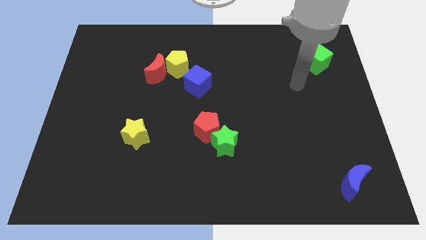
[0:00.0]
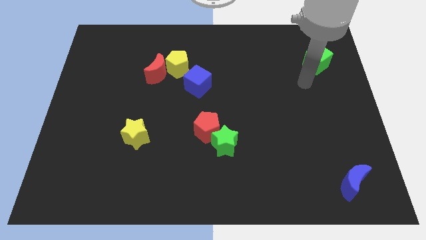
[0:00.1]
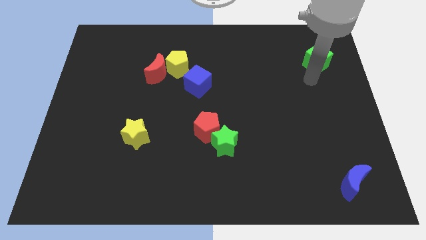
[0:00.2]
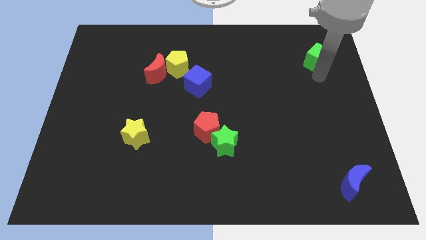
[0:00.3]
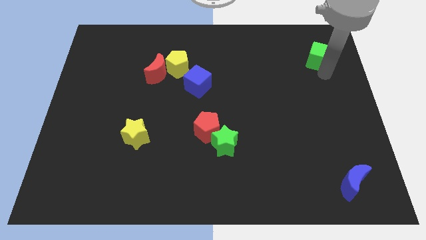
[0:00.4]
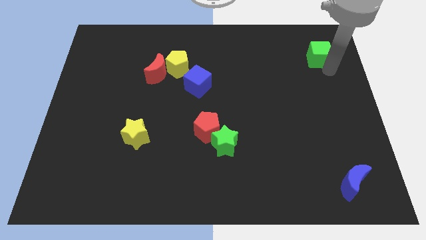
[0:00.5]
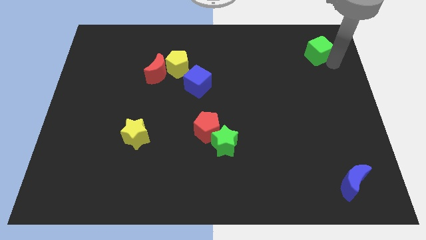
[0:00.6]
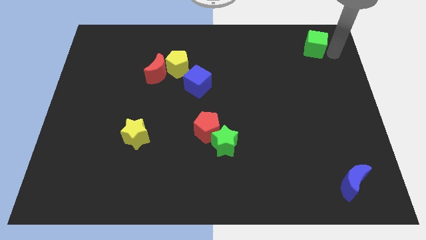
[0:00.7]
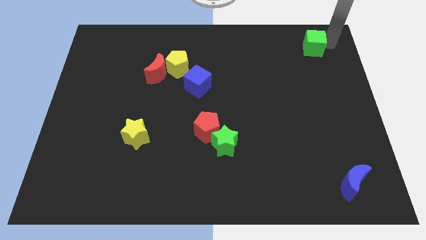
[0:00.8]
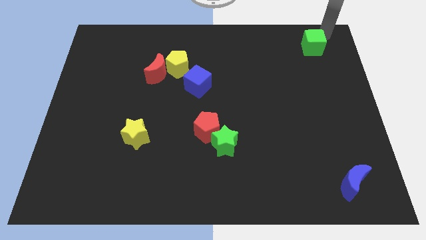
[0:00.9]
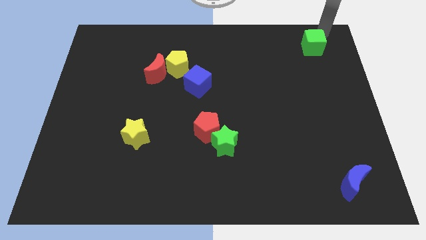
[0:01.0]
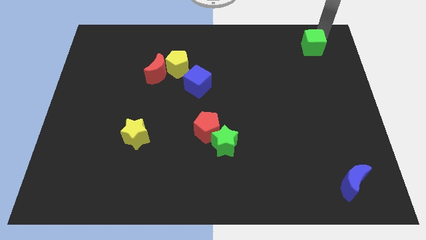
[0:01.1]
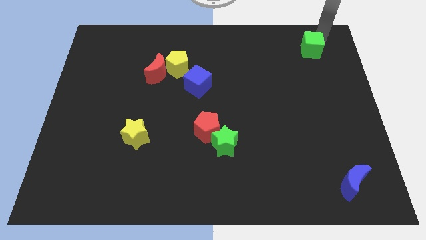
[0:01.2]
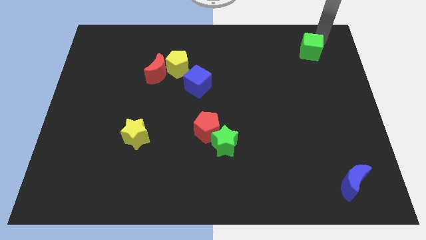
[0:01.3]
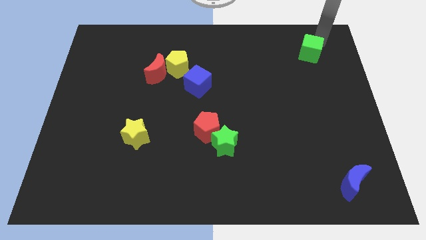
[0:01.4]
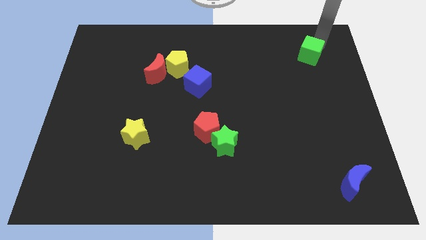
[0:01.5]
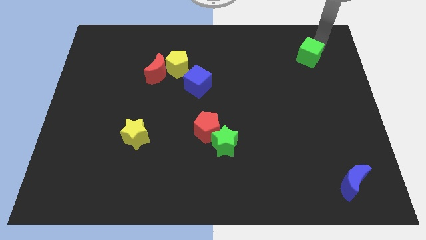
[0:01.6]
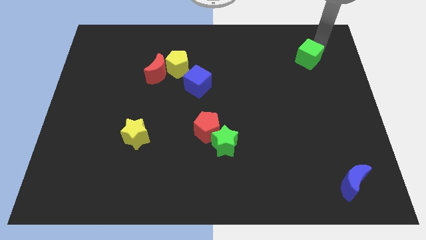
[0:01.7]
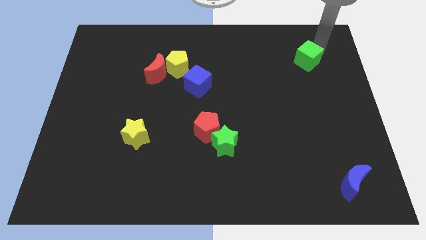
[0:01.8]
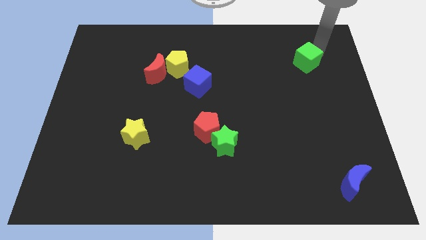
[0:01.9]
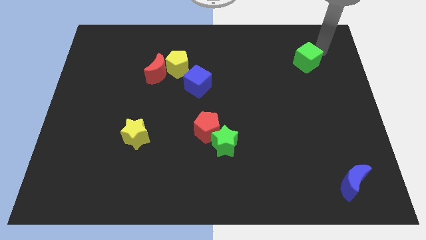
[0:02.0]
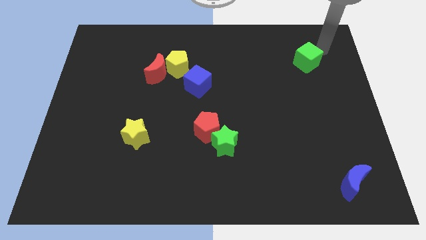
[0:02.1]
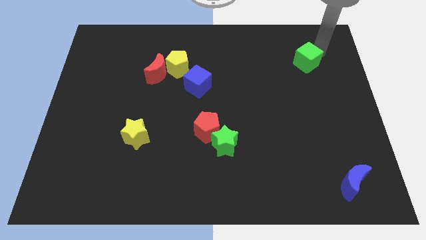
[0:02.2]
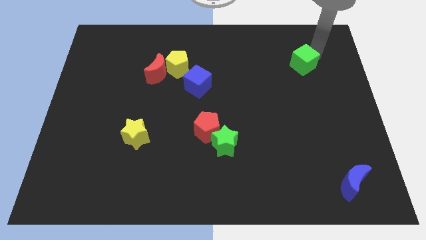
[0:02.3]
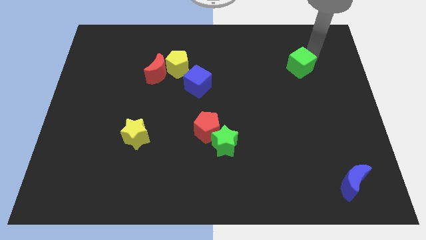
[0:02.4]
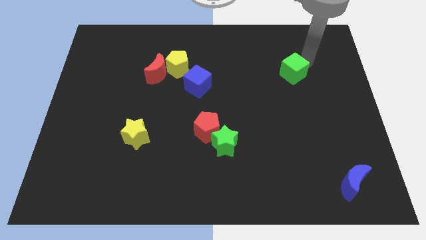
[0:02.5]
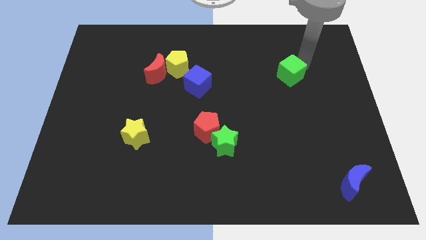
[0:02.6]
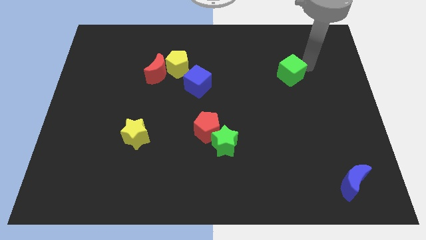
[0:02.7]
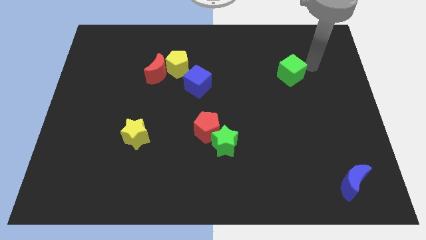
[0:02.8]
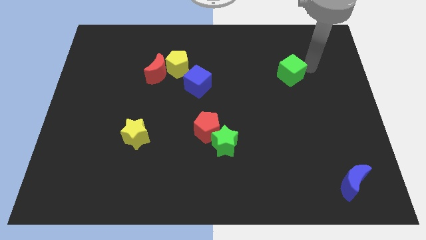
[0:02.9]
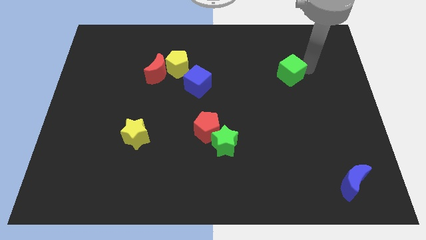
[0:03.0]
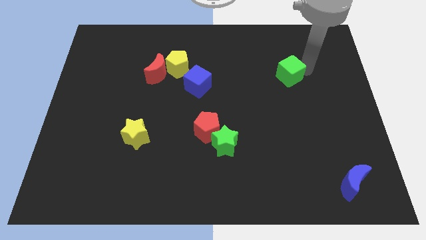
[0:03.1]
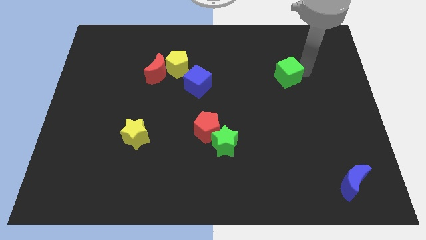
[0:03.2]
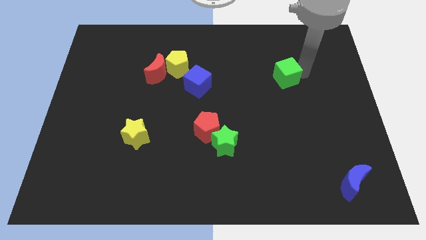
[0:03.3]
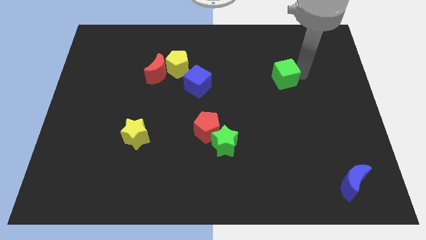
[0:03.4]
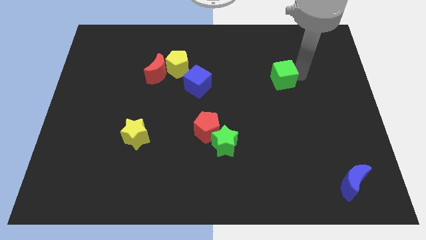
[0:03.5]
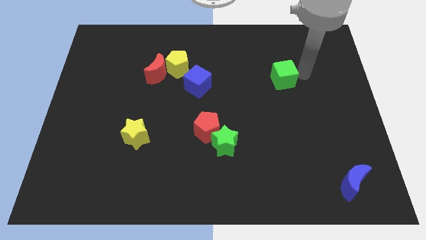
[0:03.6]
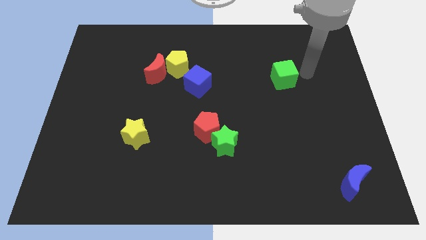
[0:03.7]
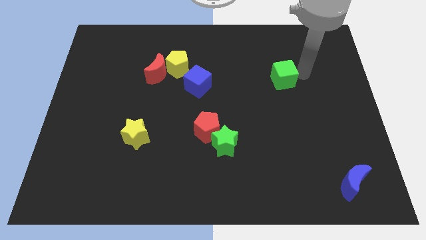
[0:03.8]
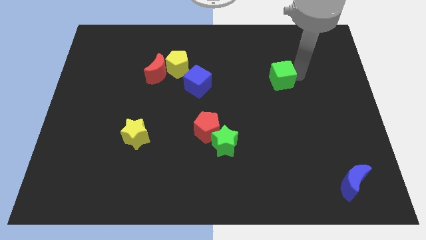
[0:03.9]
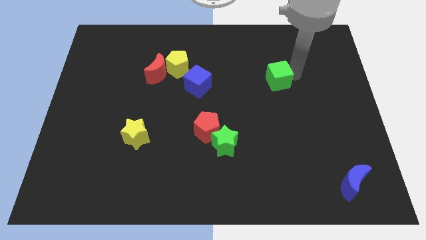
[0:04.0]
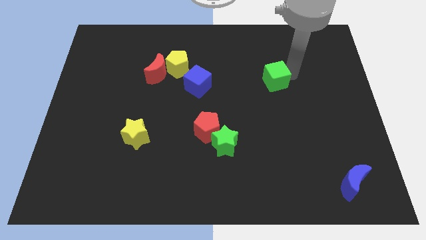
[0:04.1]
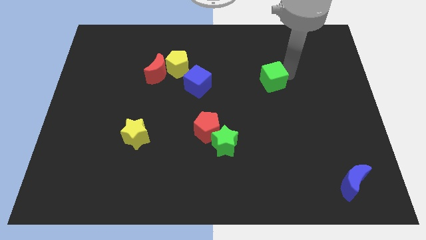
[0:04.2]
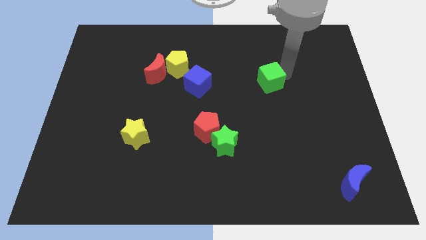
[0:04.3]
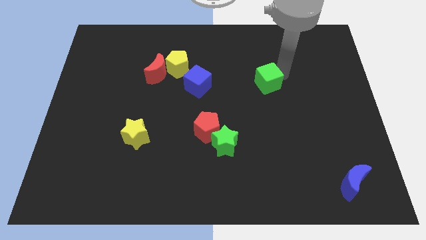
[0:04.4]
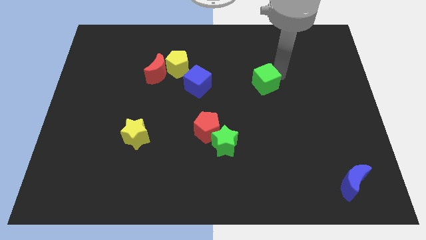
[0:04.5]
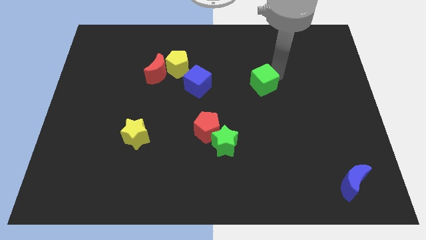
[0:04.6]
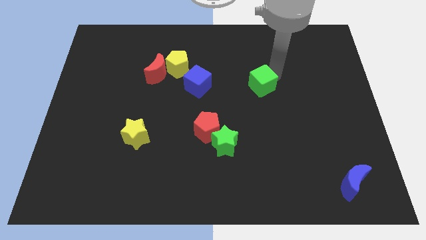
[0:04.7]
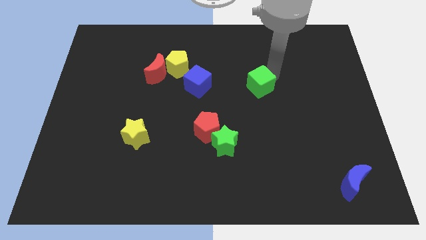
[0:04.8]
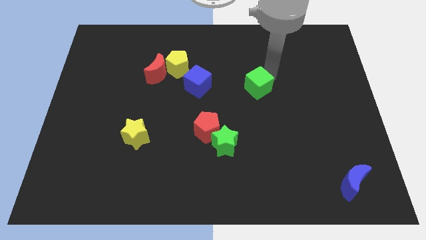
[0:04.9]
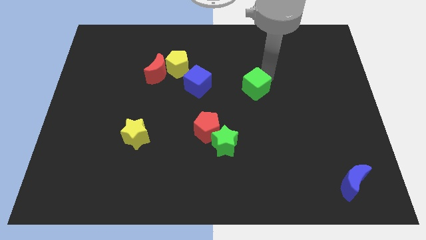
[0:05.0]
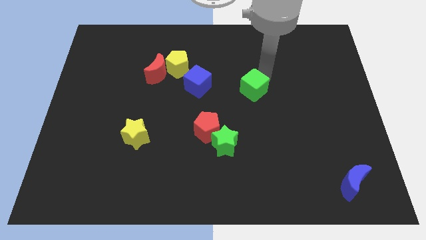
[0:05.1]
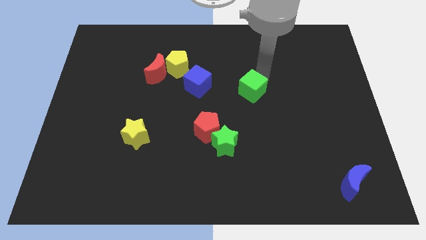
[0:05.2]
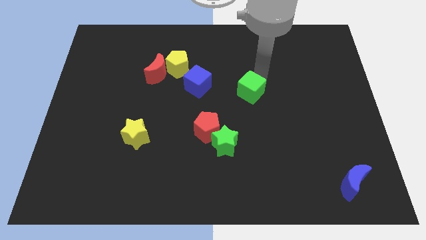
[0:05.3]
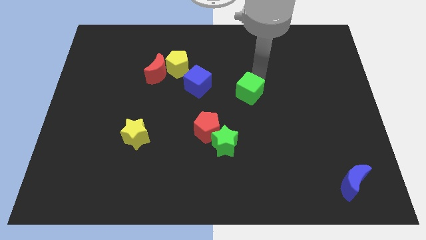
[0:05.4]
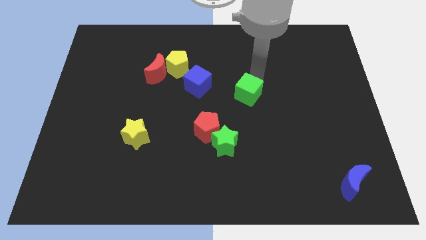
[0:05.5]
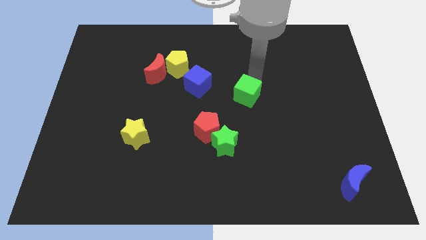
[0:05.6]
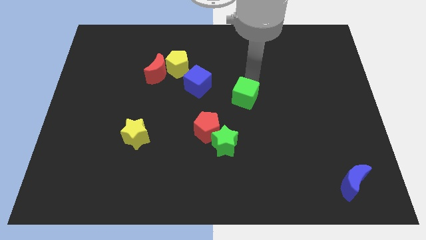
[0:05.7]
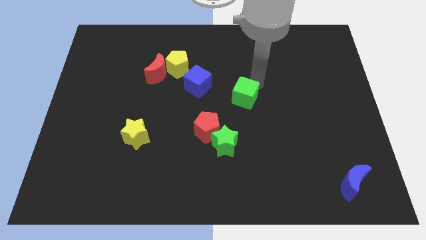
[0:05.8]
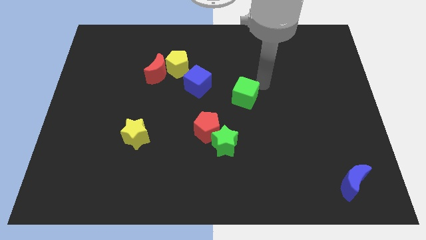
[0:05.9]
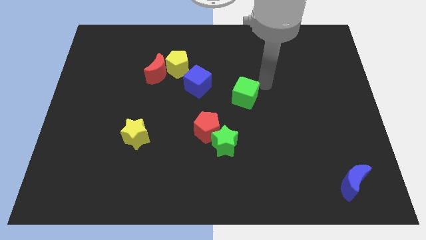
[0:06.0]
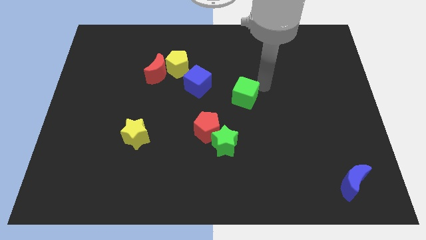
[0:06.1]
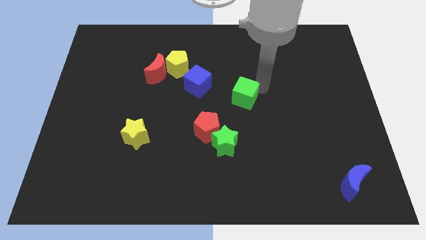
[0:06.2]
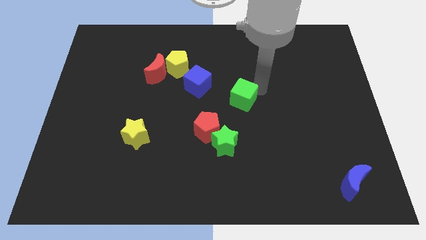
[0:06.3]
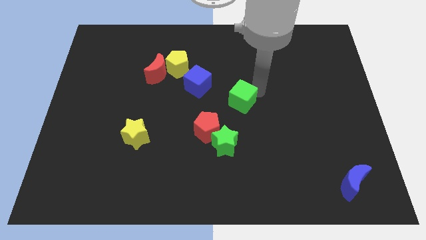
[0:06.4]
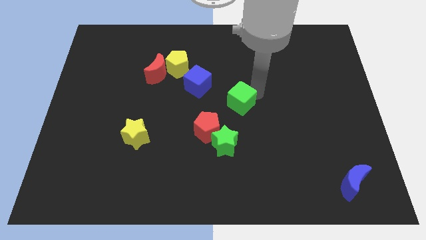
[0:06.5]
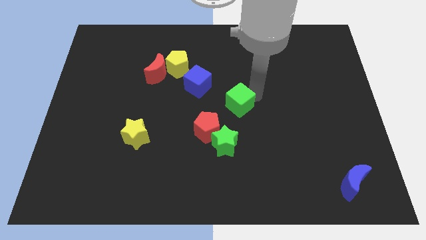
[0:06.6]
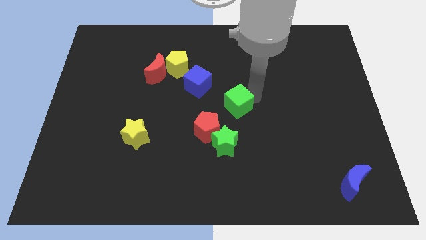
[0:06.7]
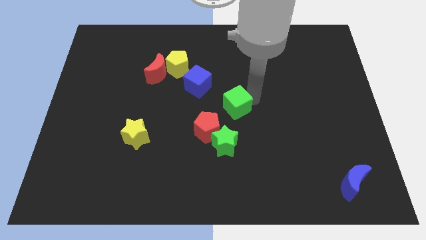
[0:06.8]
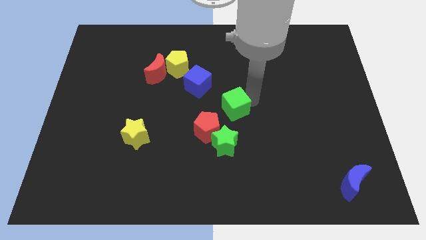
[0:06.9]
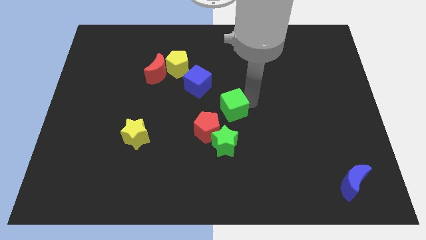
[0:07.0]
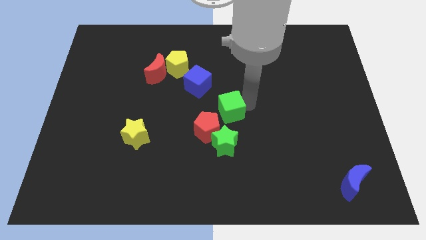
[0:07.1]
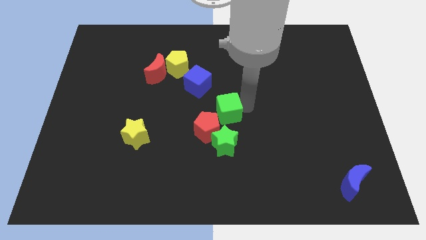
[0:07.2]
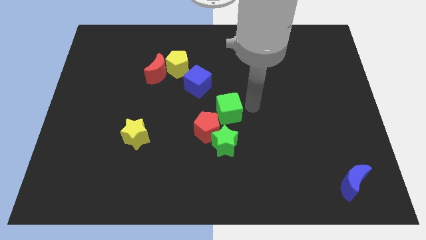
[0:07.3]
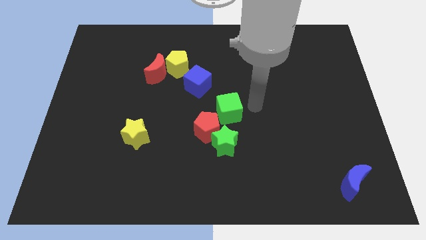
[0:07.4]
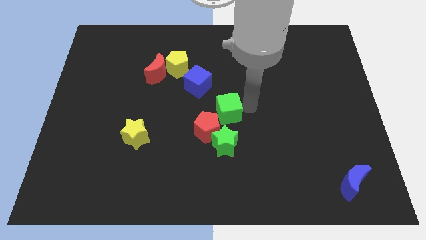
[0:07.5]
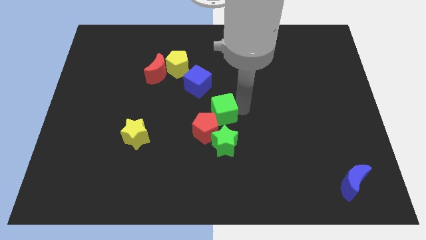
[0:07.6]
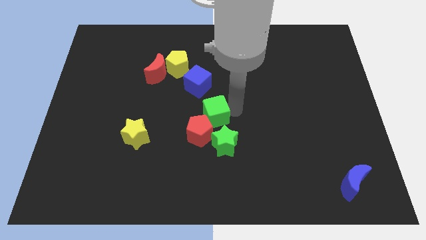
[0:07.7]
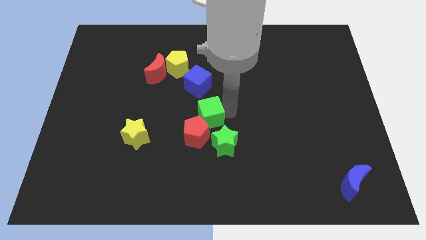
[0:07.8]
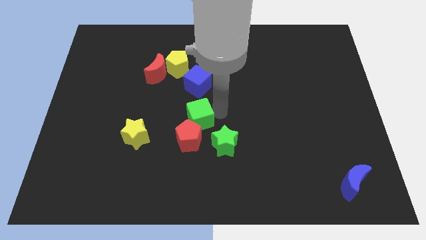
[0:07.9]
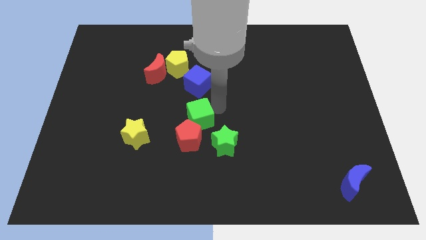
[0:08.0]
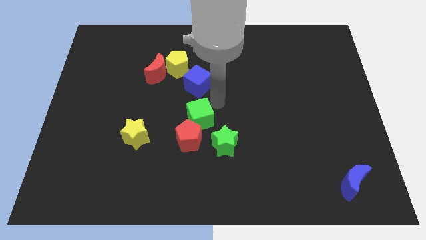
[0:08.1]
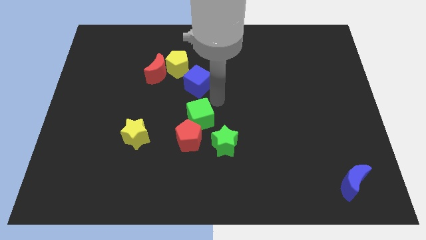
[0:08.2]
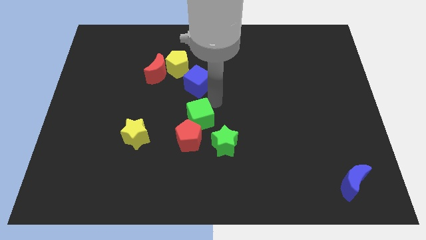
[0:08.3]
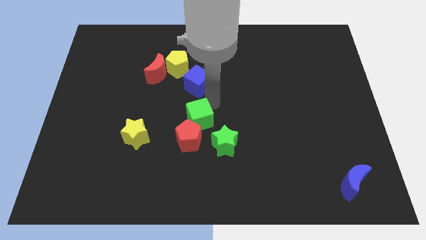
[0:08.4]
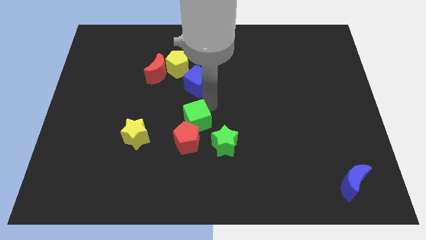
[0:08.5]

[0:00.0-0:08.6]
slide the green cube to the right side of the yellow star
